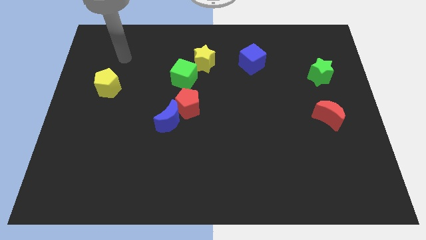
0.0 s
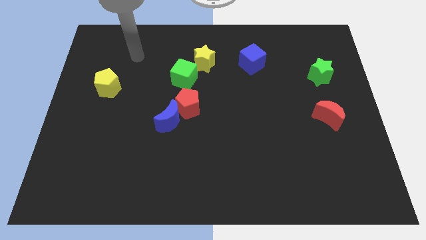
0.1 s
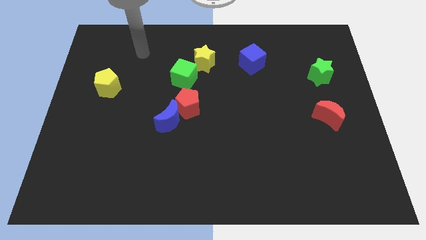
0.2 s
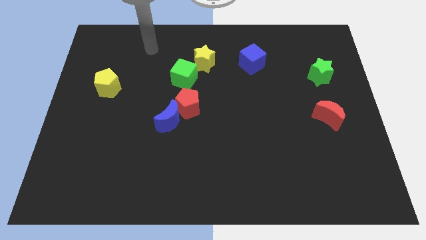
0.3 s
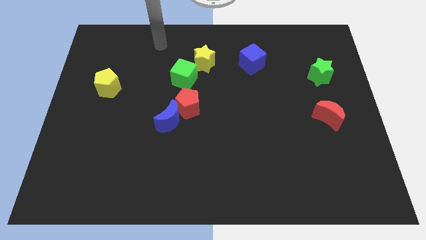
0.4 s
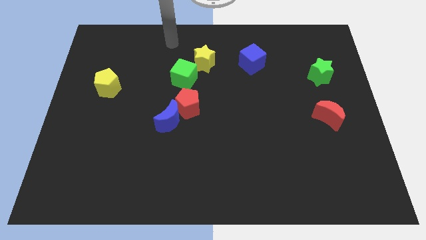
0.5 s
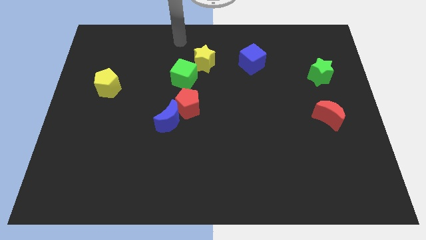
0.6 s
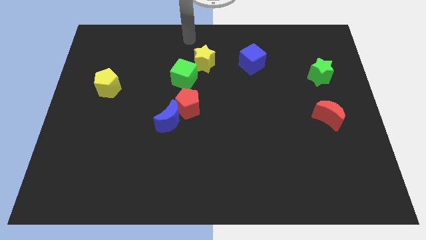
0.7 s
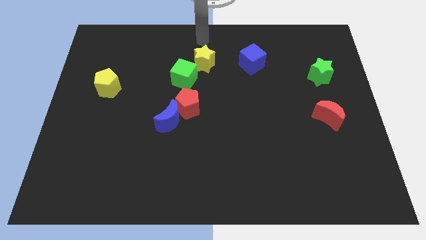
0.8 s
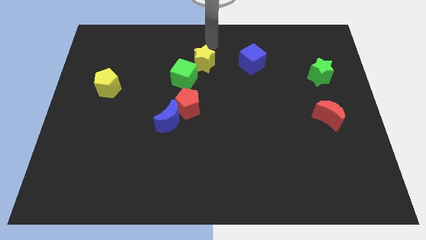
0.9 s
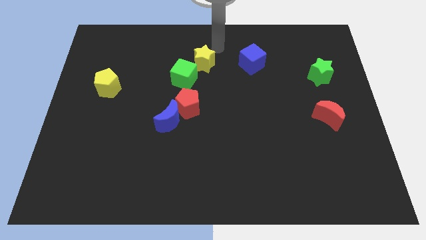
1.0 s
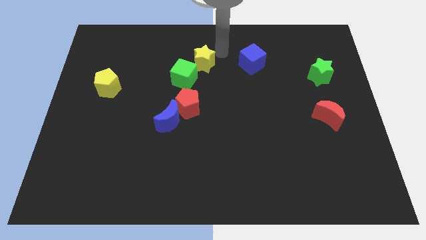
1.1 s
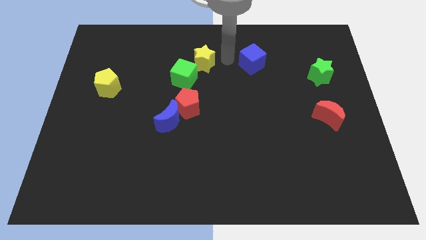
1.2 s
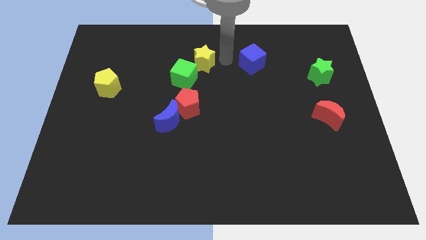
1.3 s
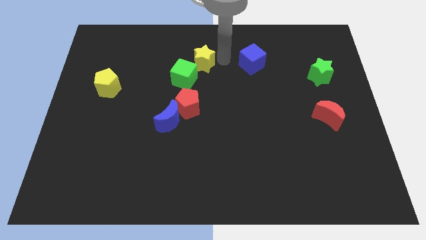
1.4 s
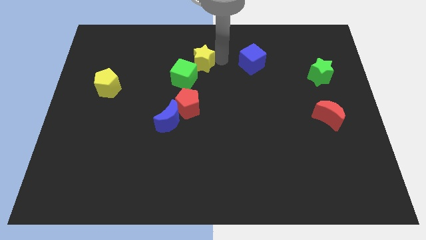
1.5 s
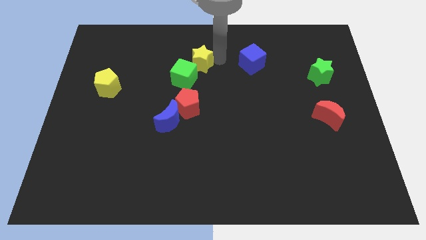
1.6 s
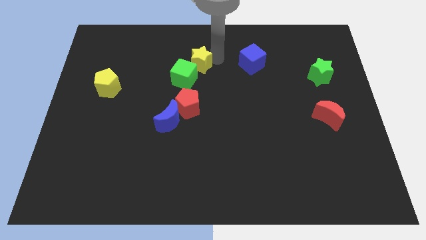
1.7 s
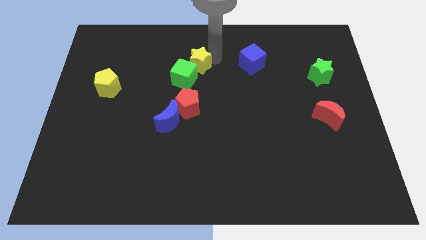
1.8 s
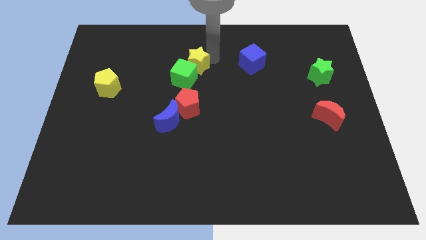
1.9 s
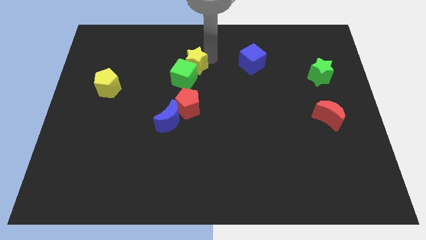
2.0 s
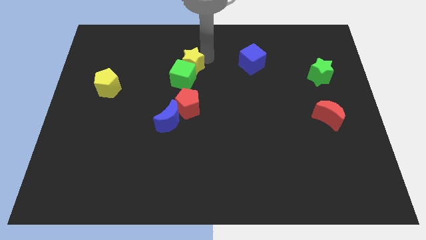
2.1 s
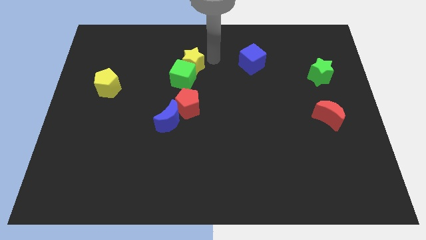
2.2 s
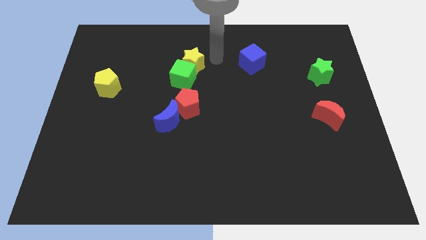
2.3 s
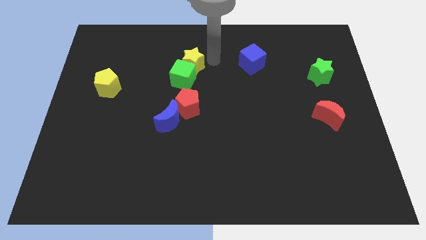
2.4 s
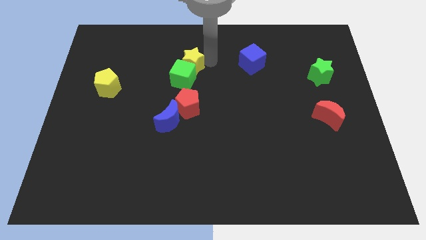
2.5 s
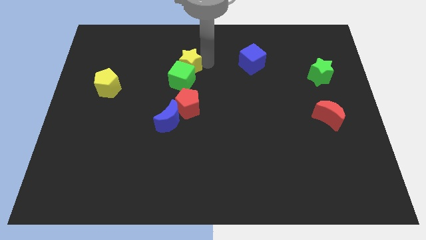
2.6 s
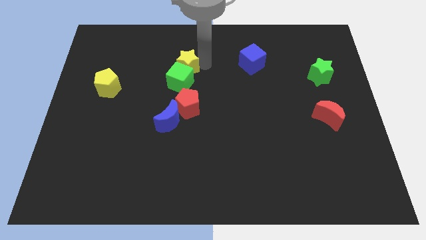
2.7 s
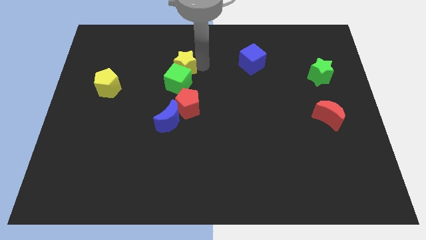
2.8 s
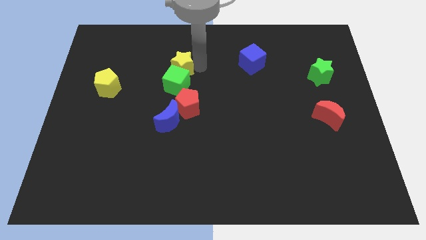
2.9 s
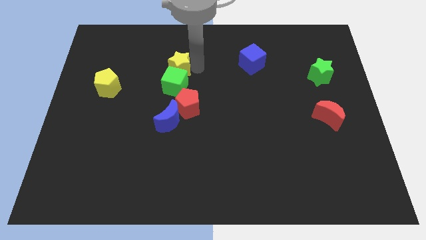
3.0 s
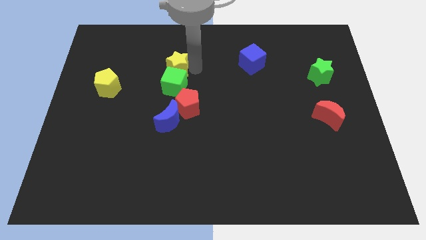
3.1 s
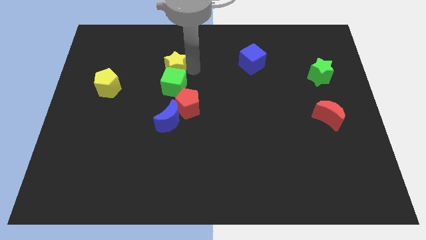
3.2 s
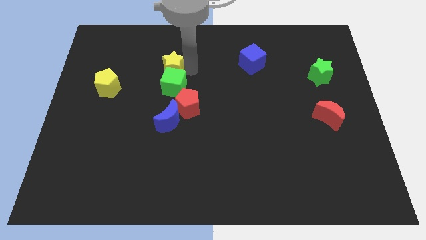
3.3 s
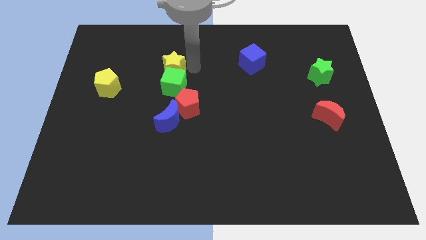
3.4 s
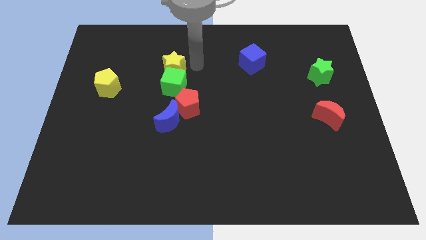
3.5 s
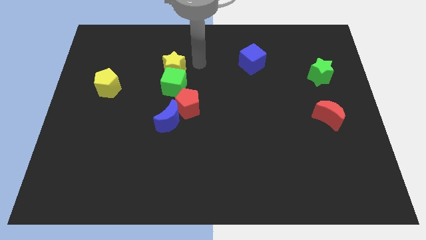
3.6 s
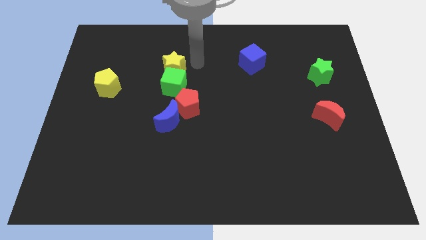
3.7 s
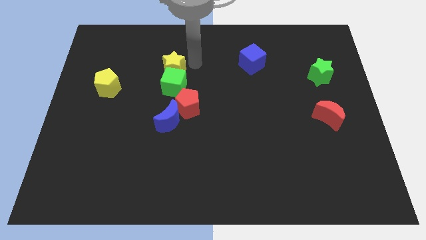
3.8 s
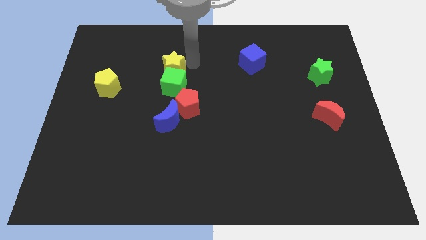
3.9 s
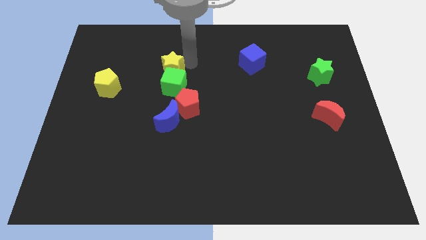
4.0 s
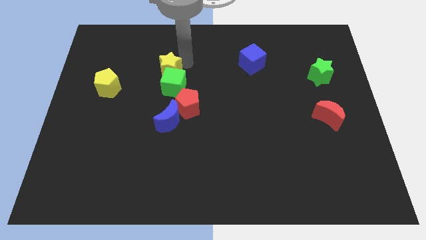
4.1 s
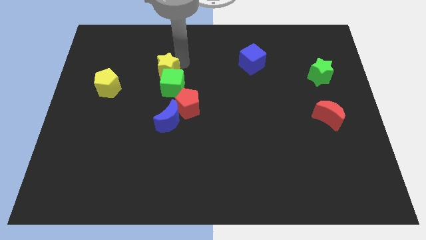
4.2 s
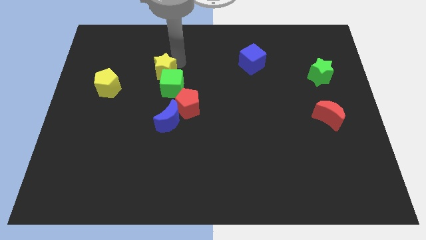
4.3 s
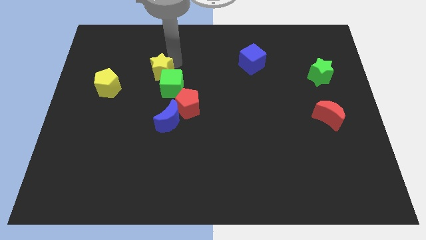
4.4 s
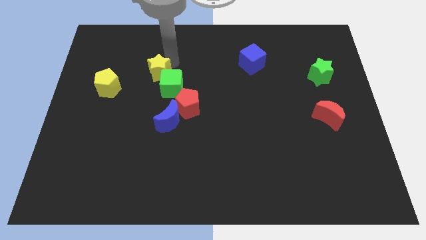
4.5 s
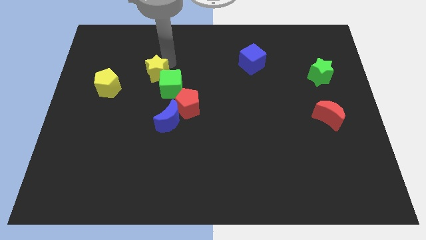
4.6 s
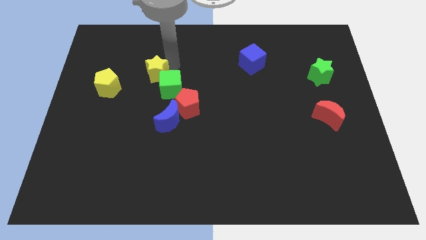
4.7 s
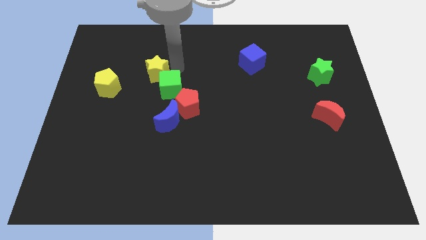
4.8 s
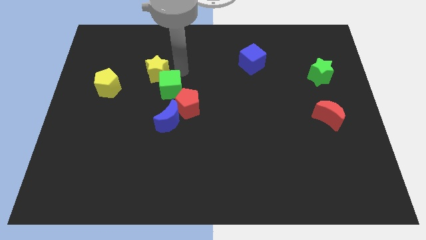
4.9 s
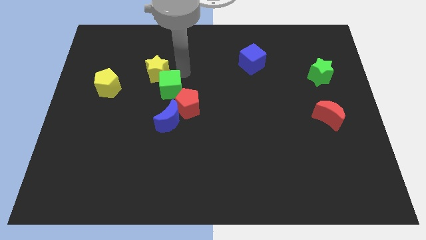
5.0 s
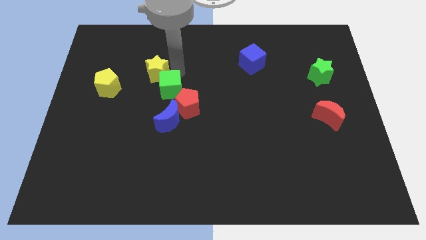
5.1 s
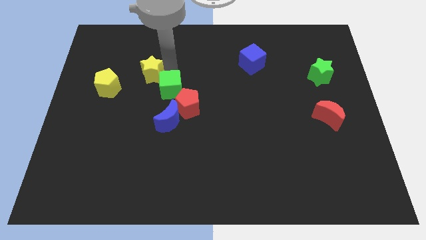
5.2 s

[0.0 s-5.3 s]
move the yellow star to the top right side of the yellow pentagon

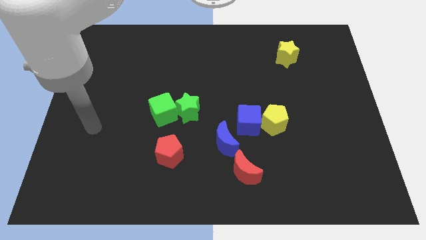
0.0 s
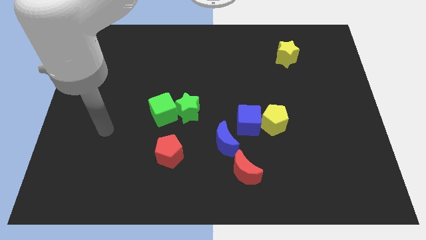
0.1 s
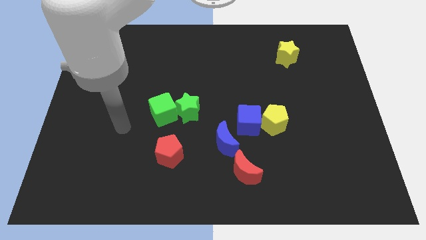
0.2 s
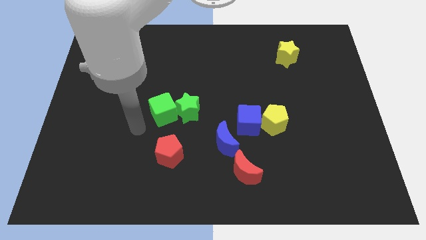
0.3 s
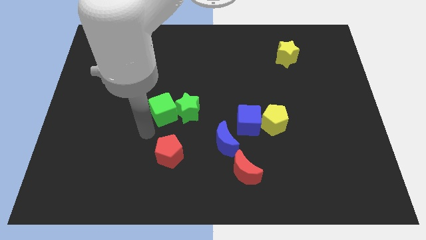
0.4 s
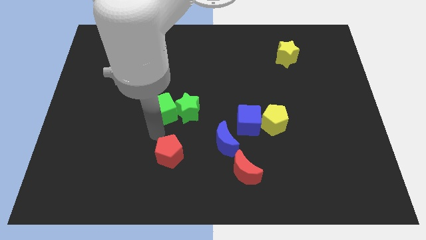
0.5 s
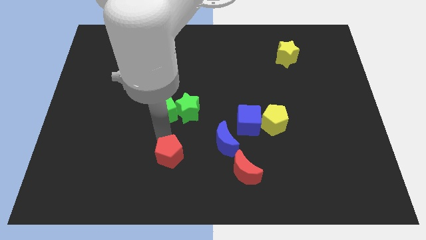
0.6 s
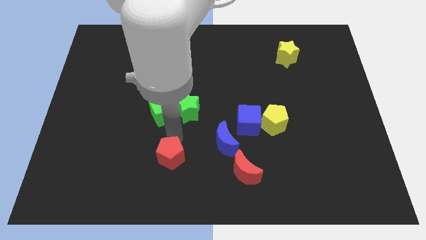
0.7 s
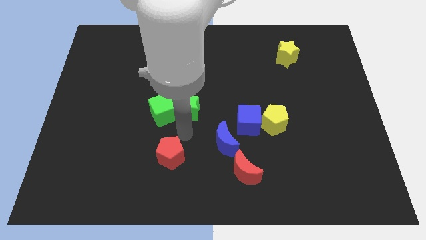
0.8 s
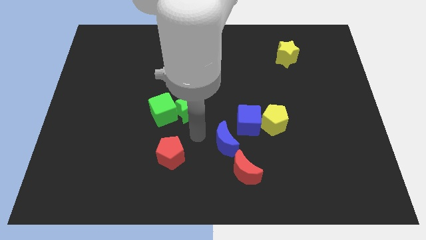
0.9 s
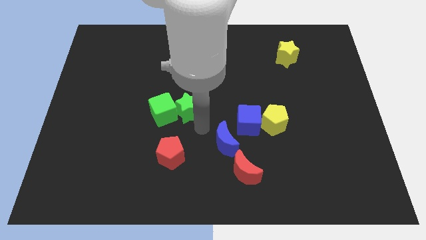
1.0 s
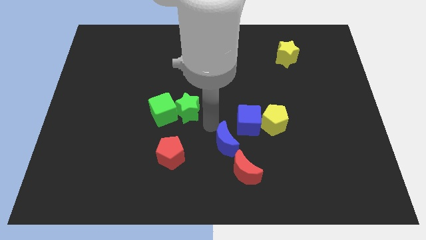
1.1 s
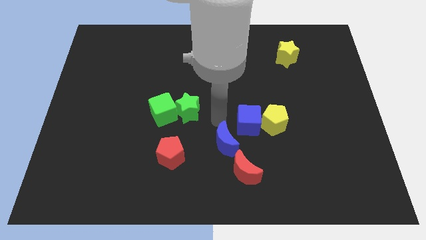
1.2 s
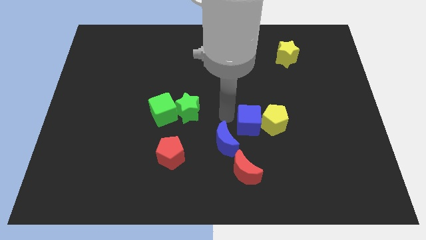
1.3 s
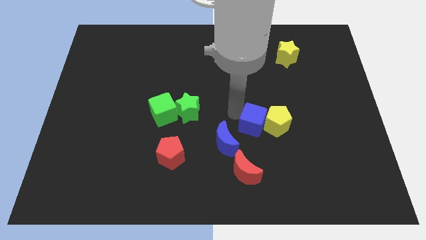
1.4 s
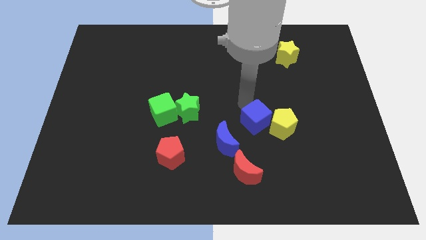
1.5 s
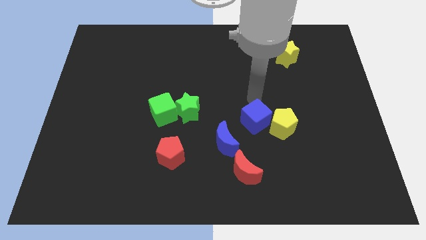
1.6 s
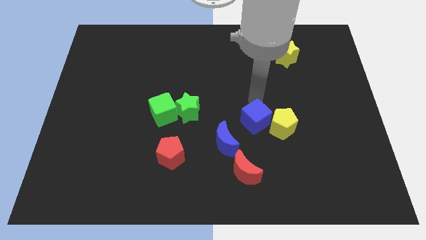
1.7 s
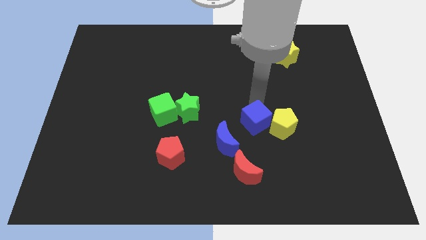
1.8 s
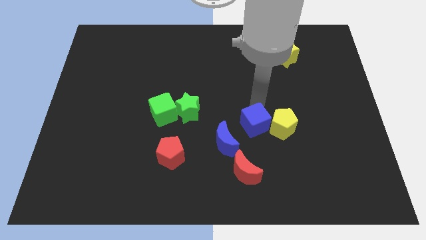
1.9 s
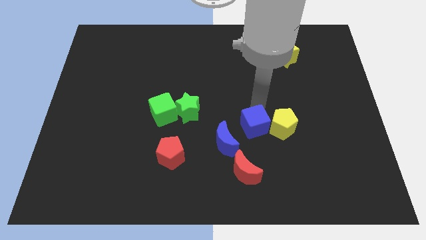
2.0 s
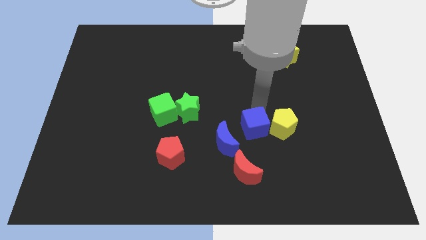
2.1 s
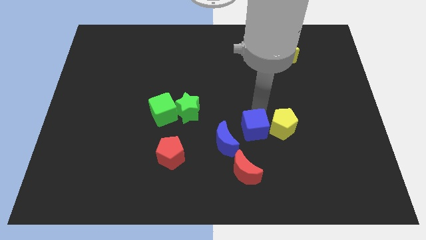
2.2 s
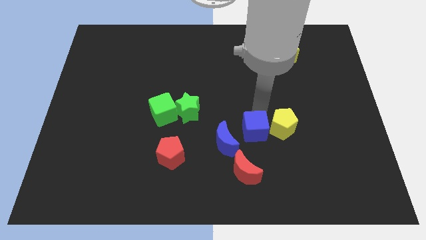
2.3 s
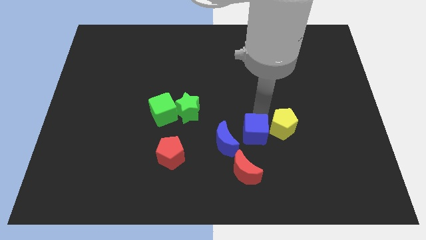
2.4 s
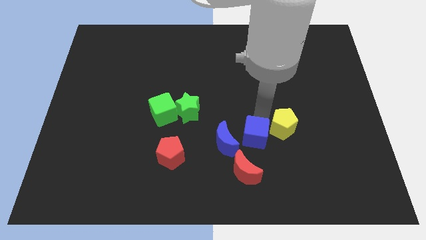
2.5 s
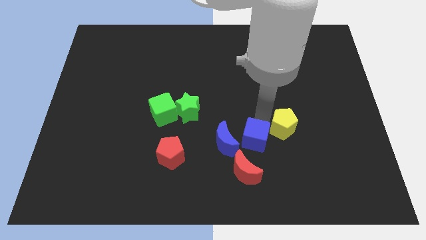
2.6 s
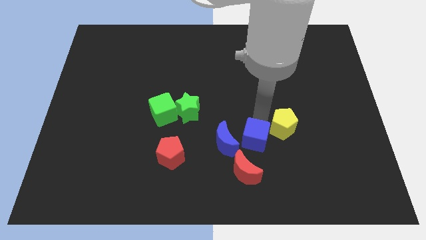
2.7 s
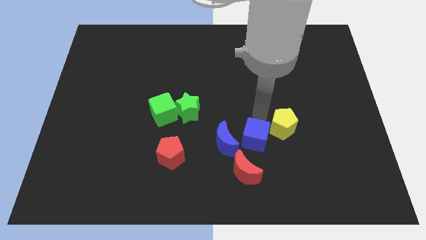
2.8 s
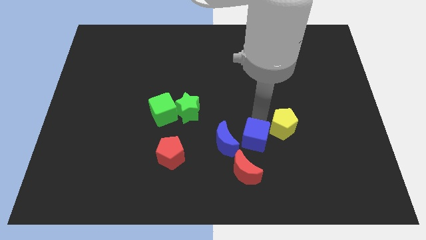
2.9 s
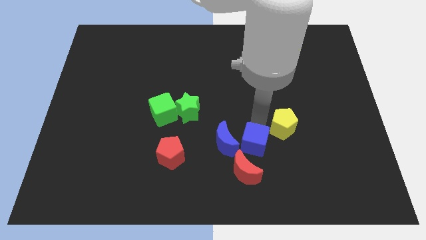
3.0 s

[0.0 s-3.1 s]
push the blue cube to the bottom right side of the blue moon
